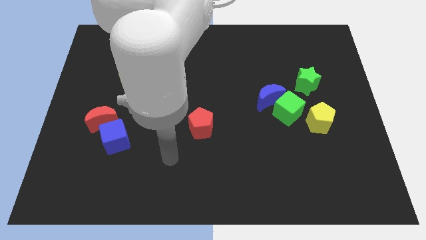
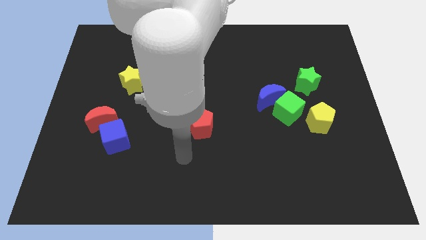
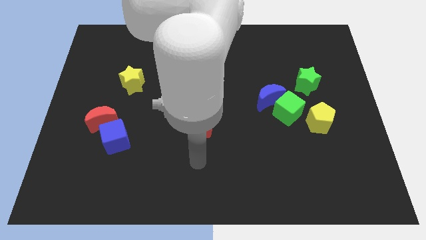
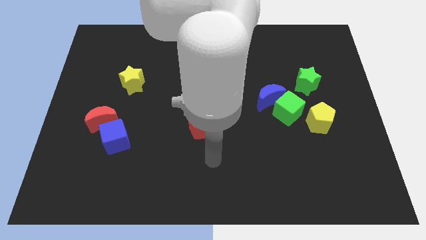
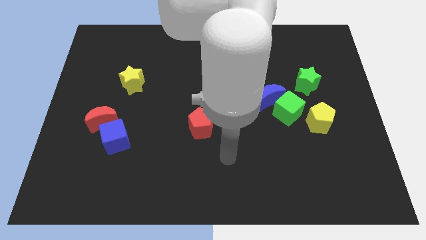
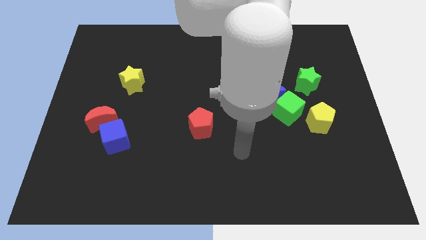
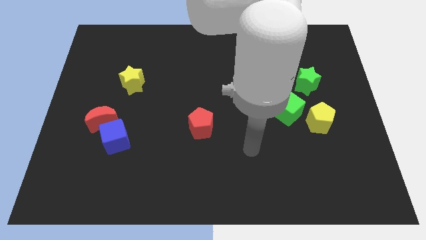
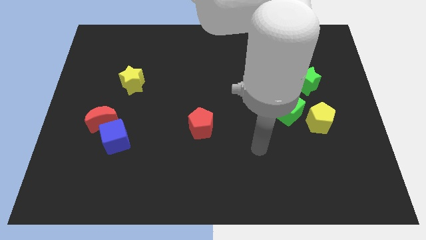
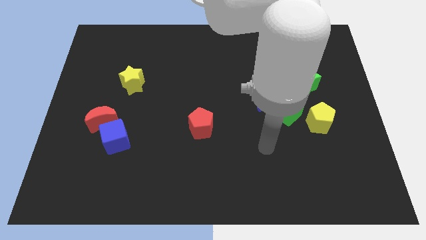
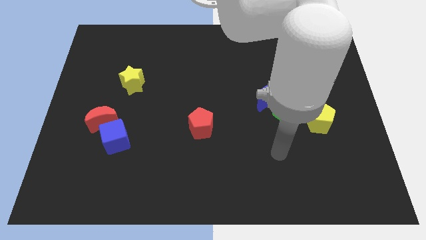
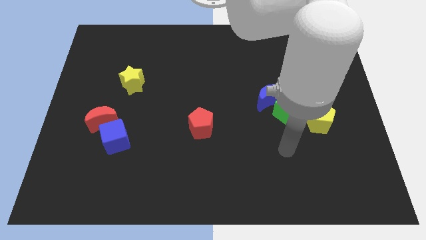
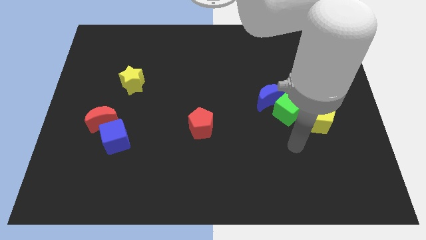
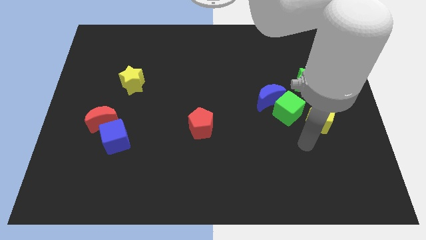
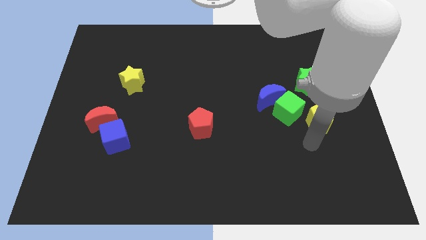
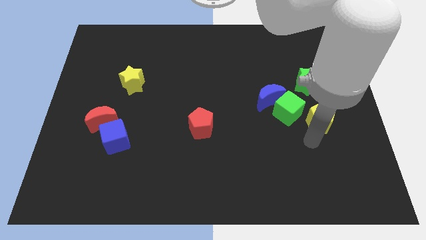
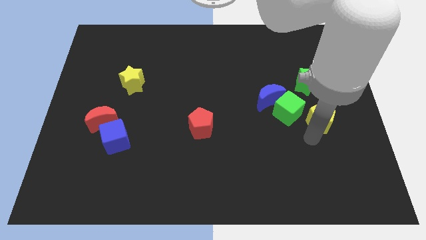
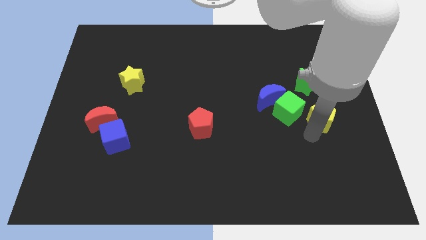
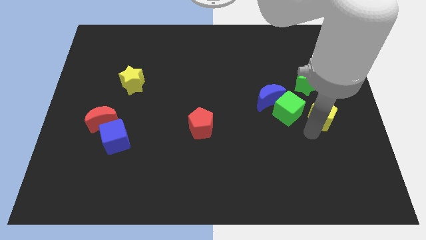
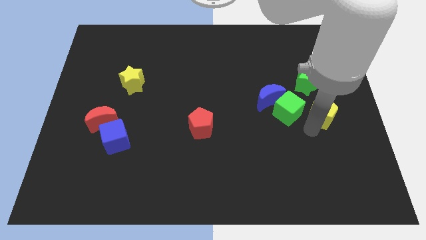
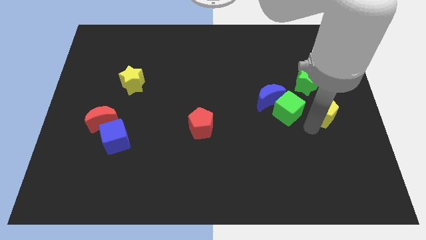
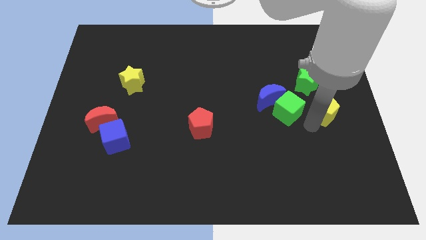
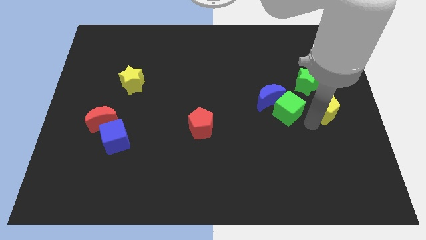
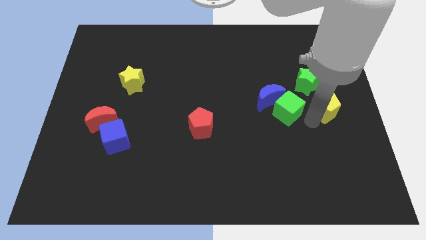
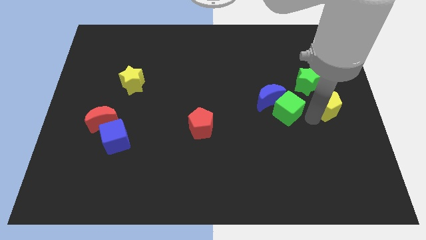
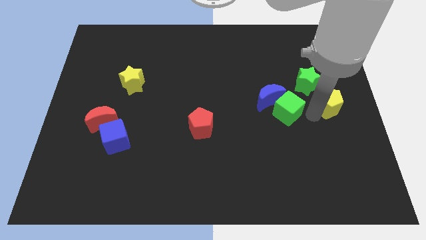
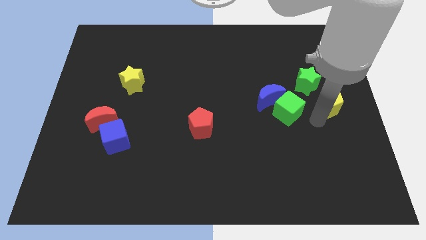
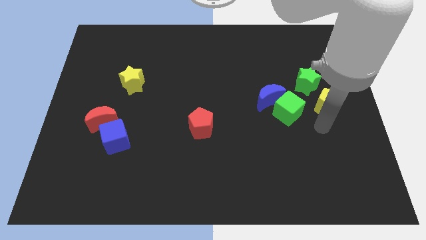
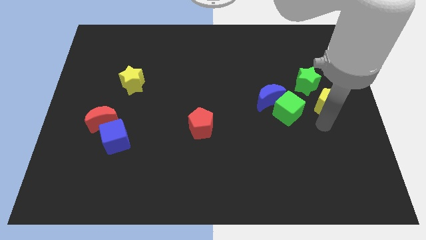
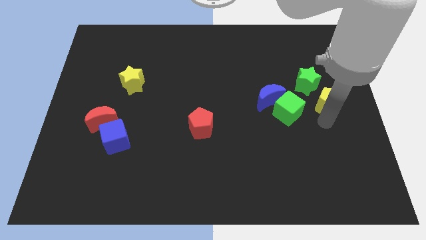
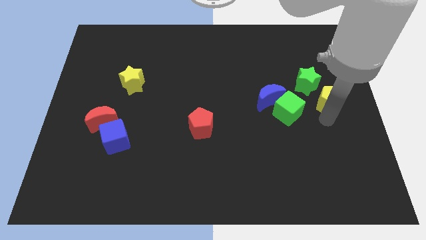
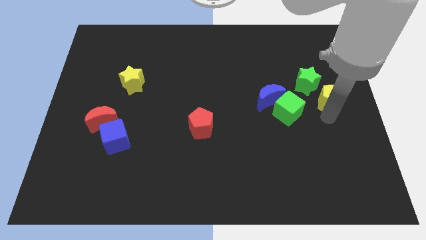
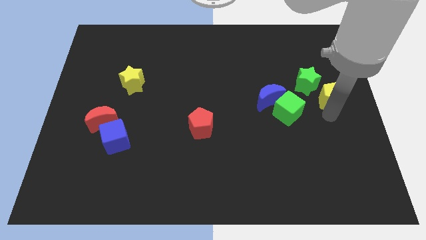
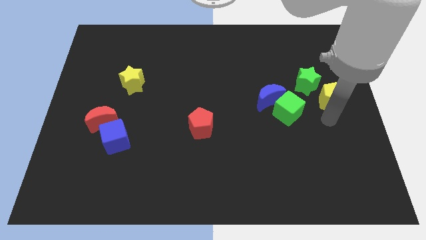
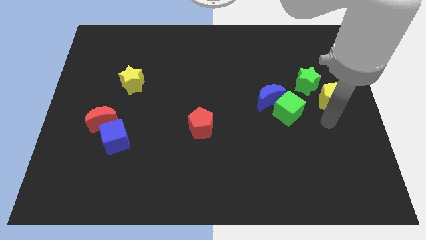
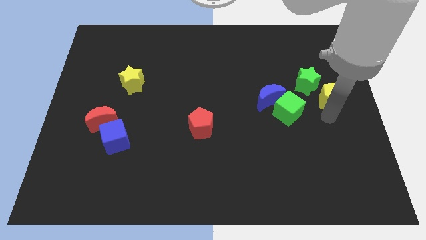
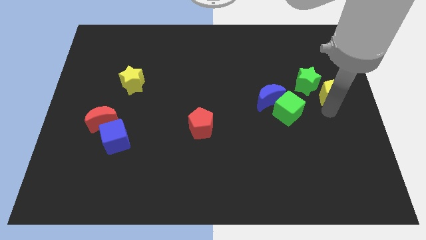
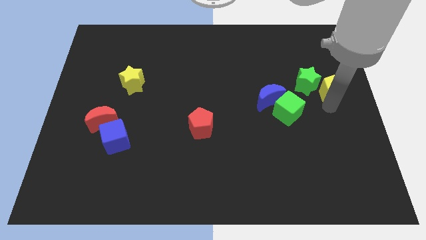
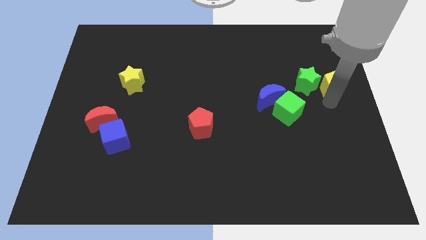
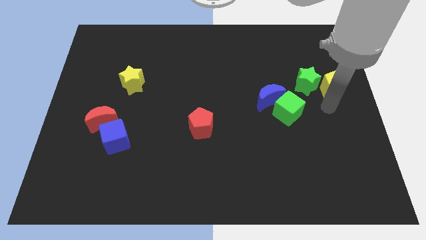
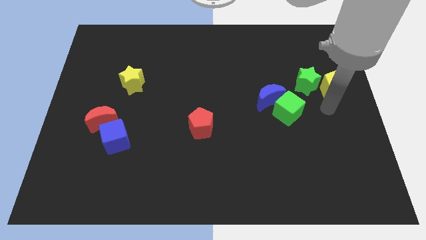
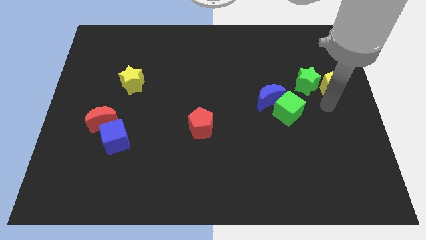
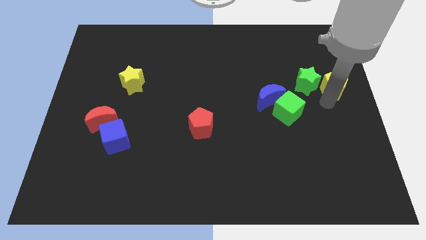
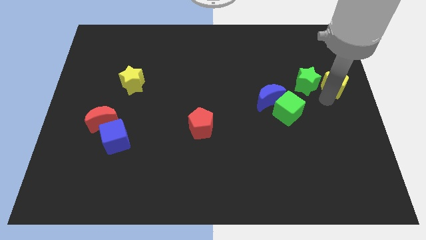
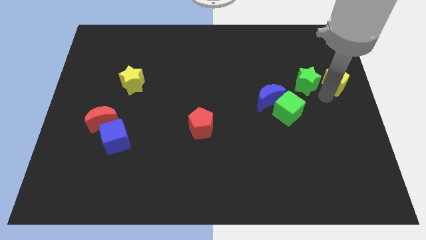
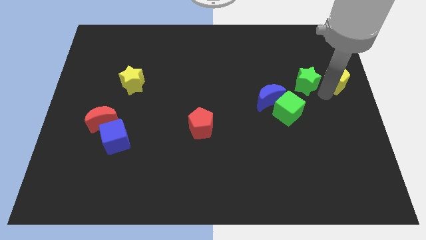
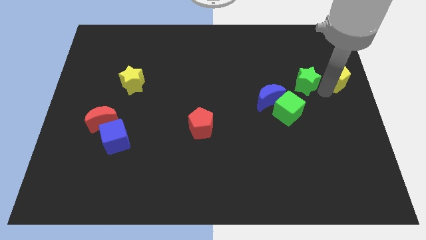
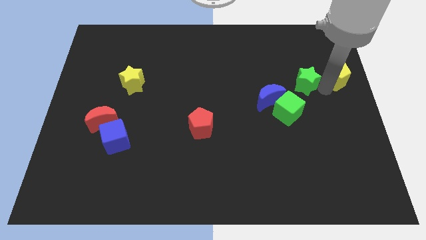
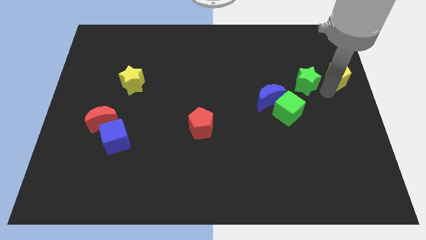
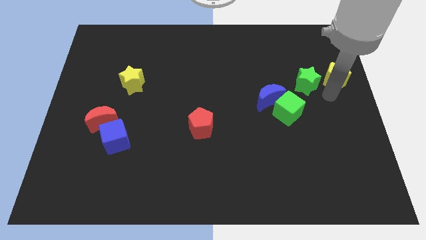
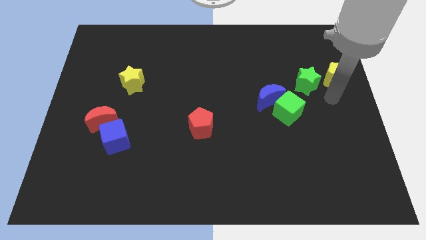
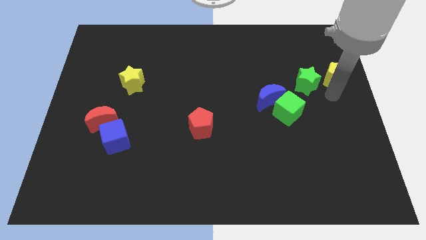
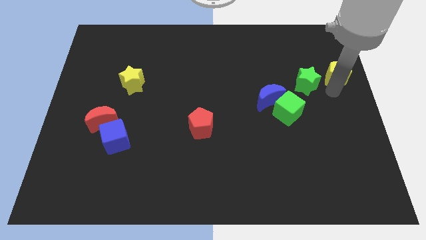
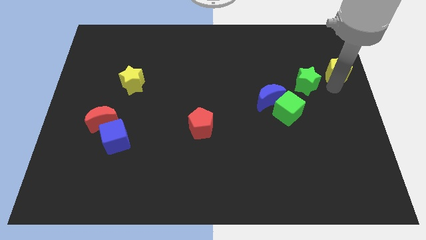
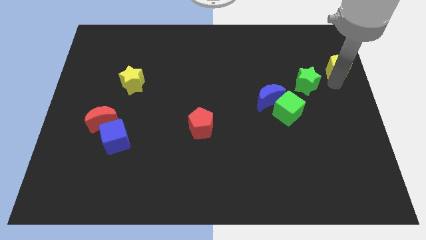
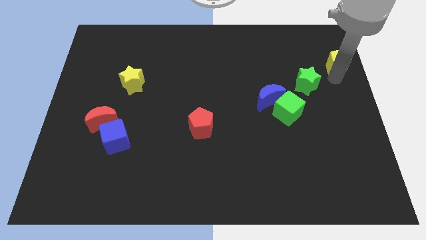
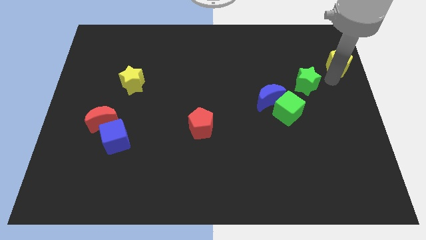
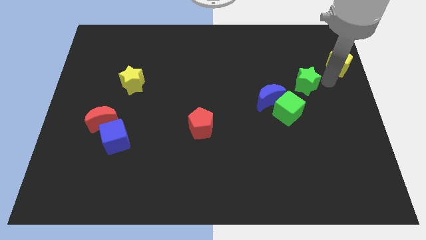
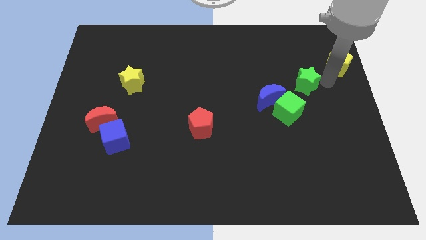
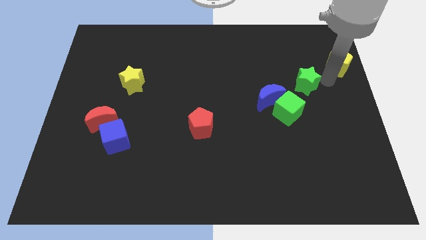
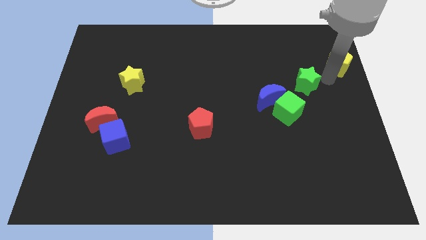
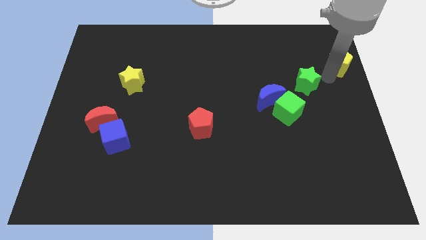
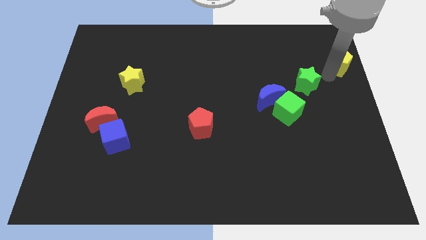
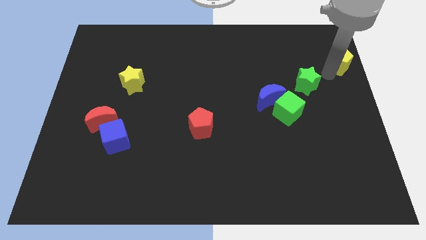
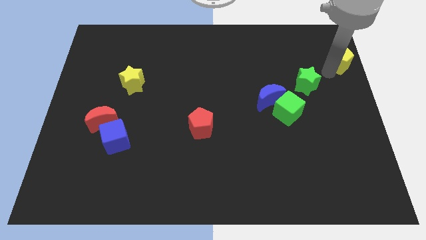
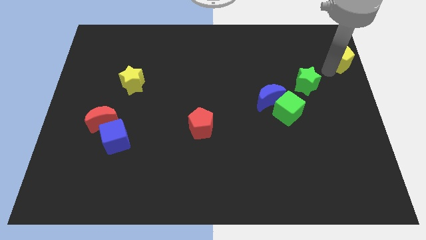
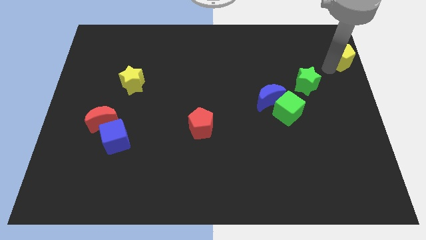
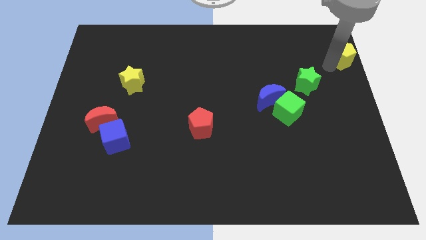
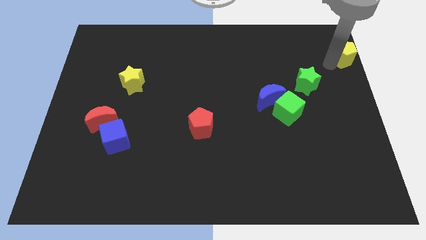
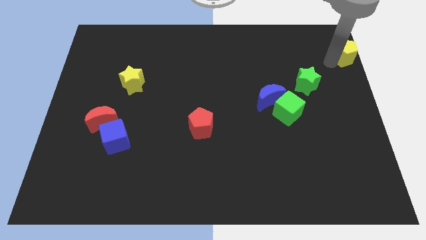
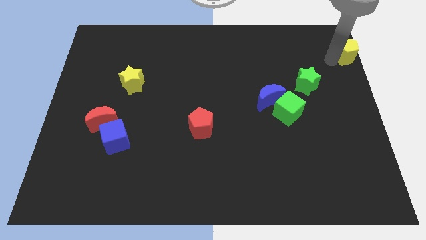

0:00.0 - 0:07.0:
slide the yellow pentagon to the upper right corner
